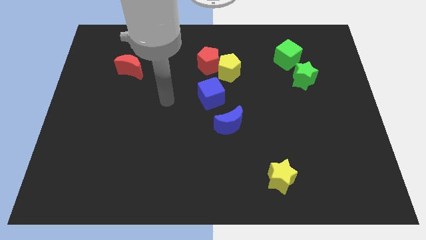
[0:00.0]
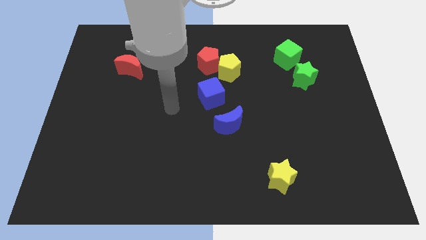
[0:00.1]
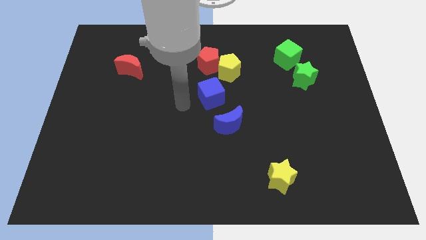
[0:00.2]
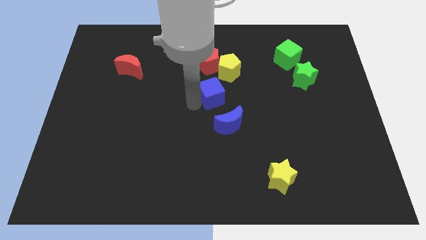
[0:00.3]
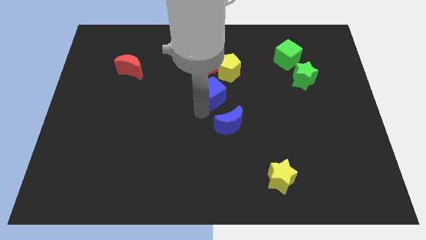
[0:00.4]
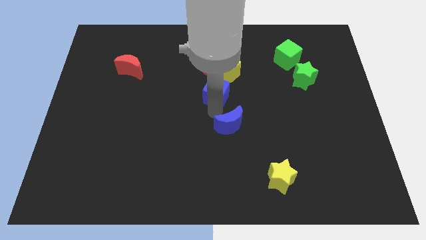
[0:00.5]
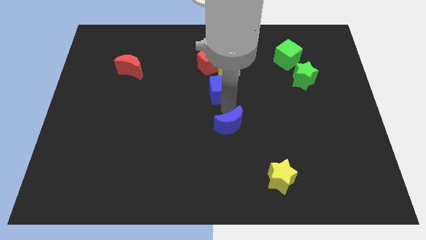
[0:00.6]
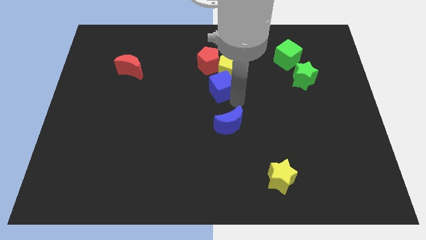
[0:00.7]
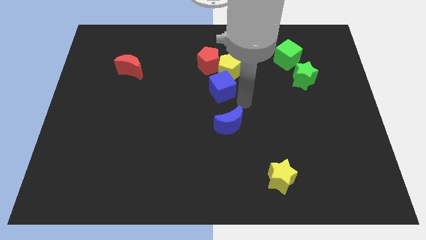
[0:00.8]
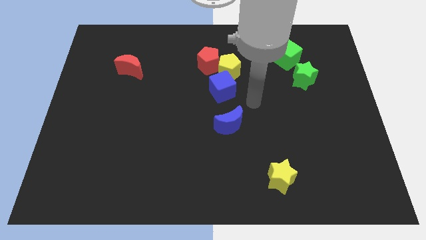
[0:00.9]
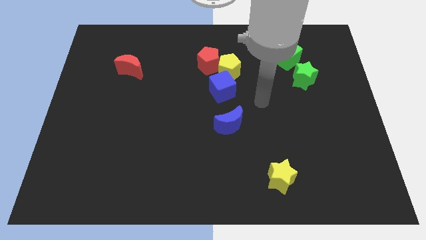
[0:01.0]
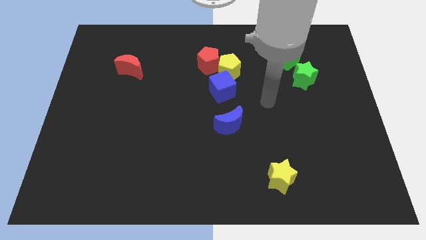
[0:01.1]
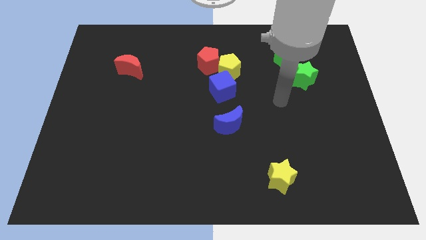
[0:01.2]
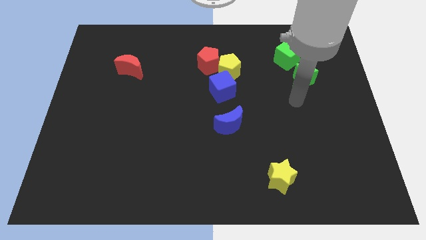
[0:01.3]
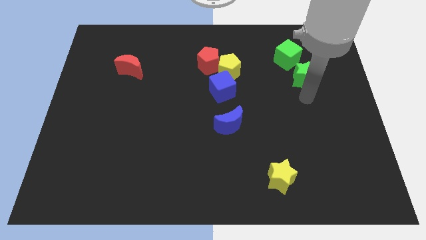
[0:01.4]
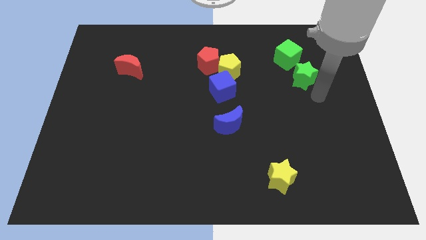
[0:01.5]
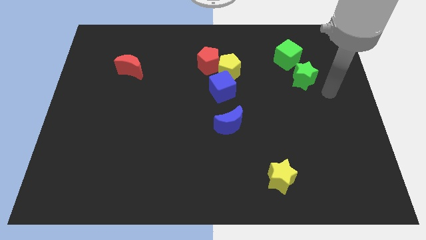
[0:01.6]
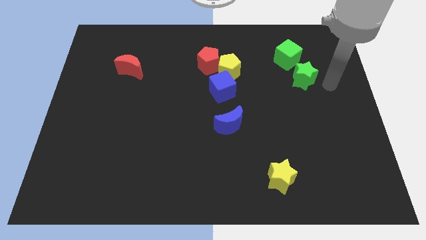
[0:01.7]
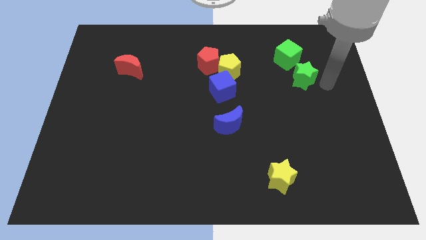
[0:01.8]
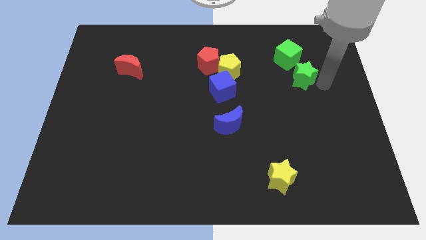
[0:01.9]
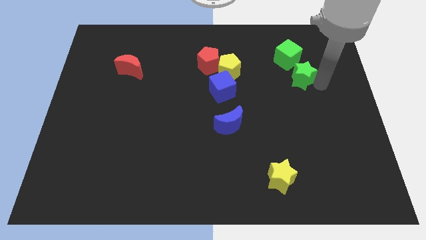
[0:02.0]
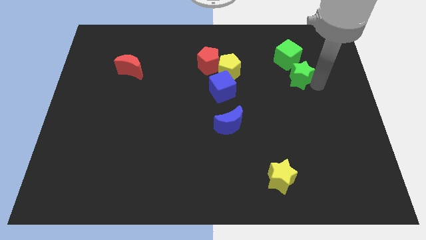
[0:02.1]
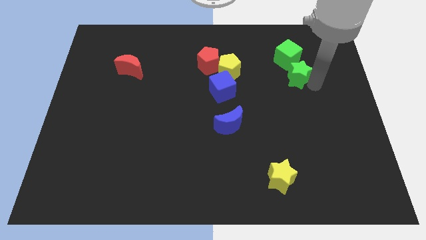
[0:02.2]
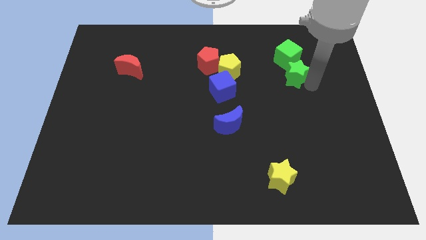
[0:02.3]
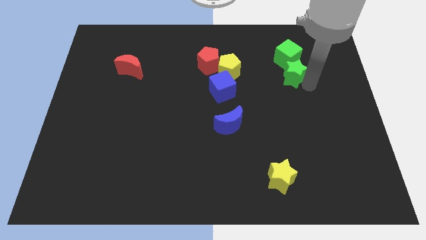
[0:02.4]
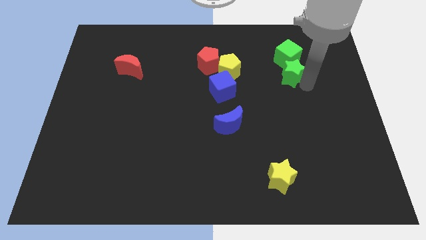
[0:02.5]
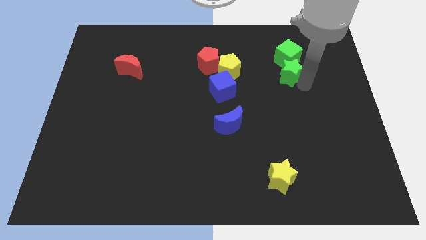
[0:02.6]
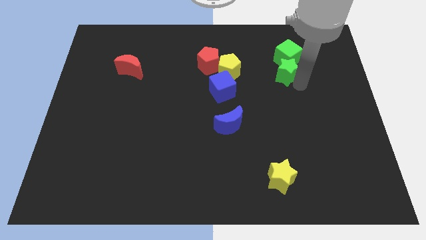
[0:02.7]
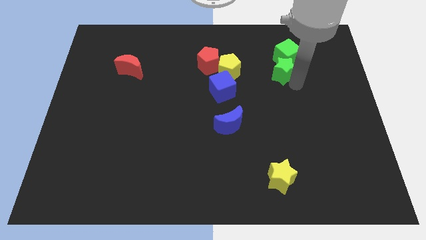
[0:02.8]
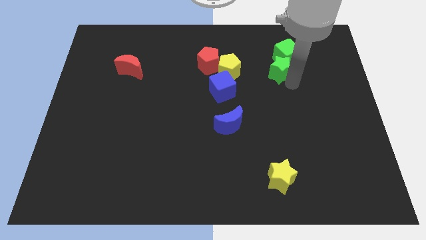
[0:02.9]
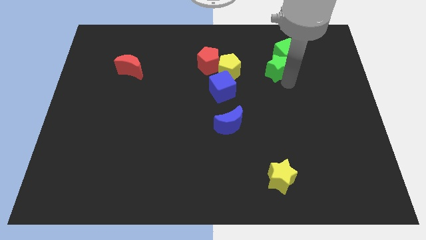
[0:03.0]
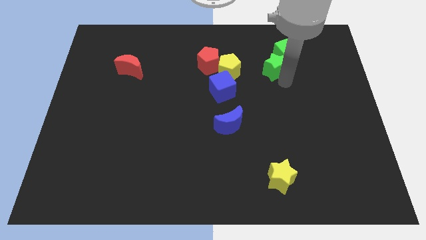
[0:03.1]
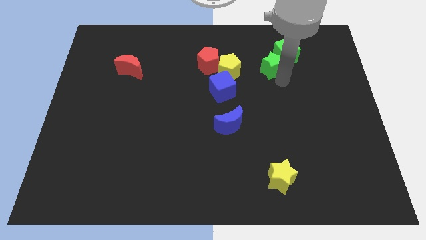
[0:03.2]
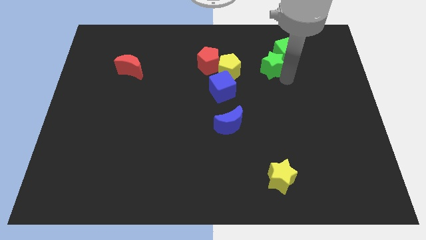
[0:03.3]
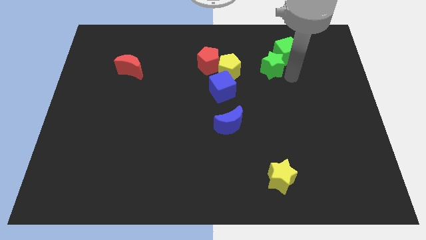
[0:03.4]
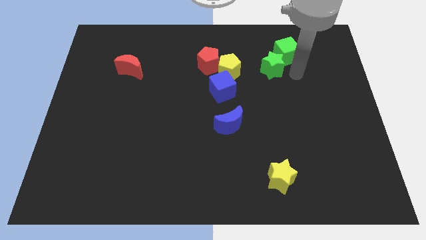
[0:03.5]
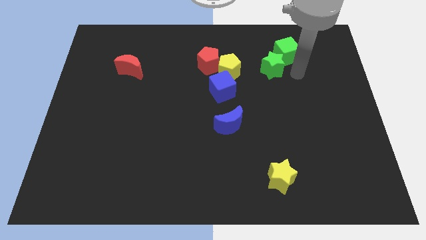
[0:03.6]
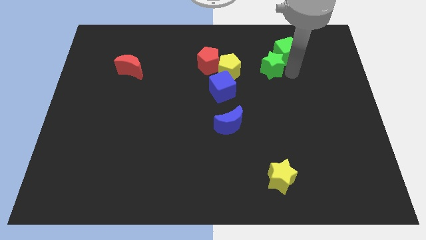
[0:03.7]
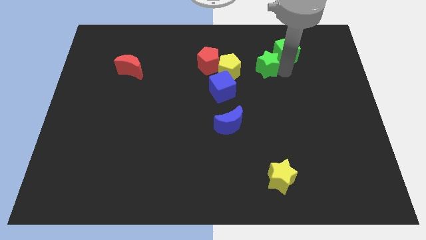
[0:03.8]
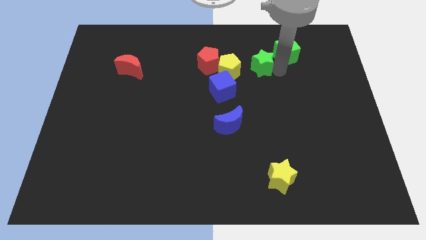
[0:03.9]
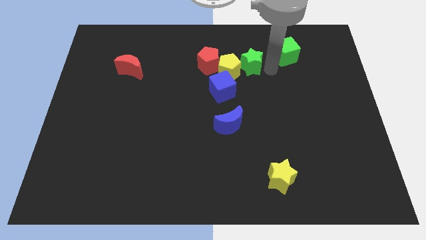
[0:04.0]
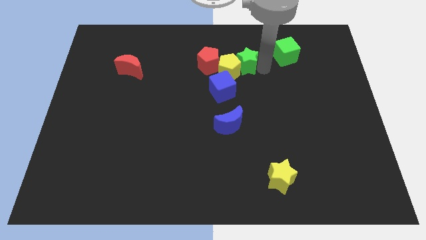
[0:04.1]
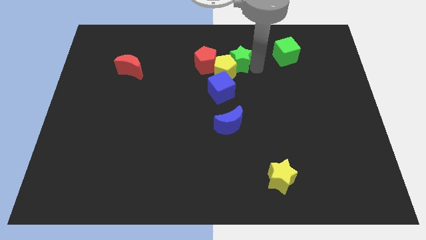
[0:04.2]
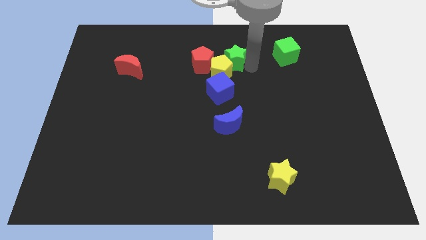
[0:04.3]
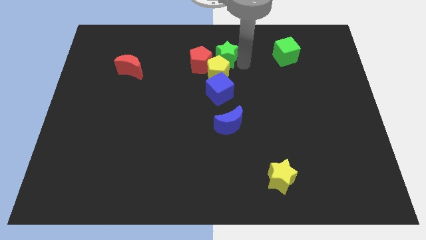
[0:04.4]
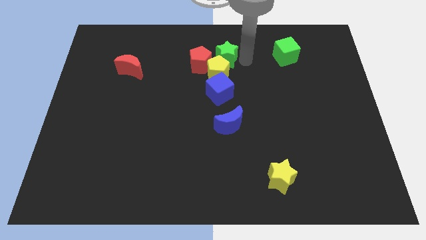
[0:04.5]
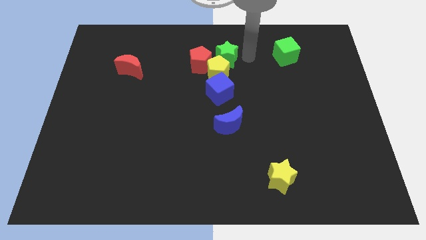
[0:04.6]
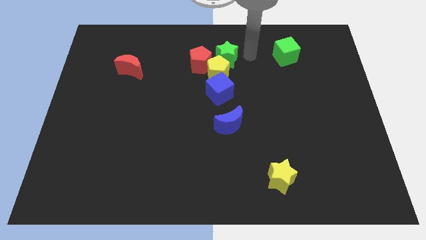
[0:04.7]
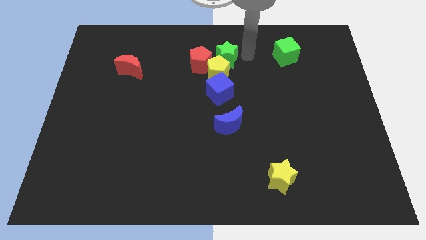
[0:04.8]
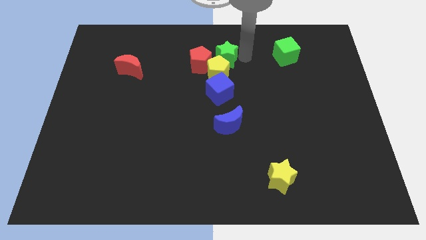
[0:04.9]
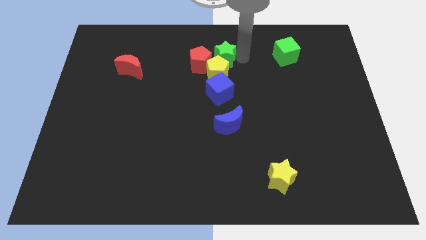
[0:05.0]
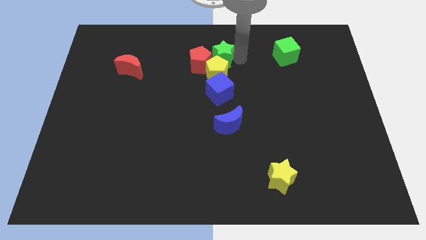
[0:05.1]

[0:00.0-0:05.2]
move the green star next to the red pentagon

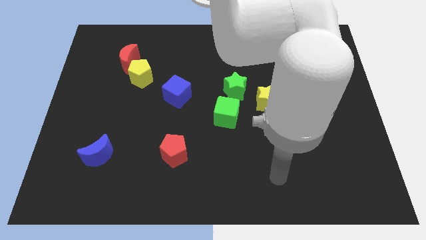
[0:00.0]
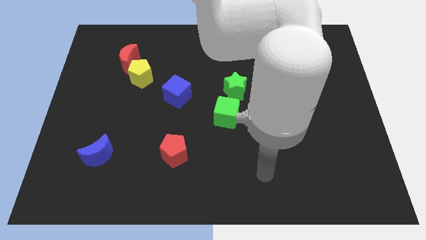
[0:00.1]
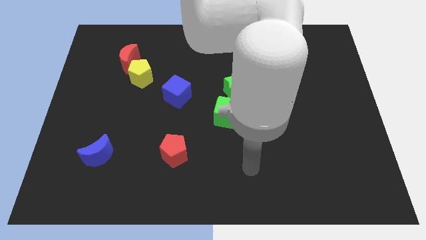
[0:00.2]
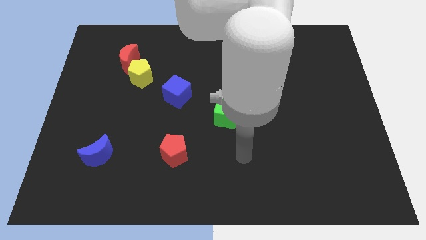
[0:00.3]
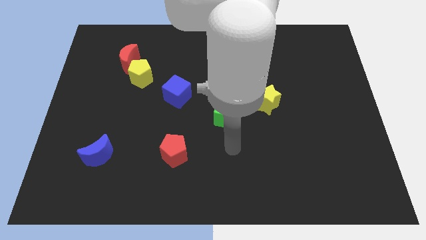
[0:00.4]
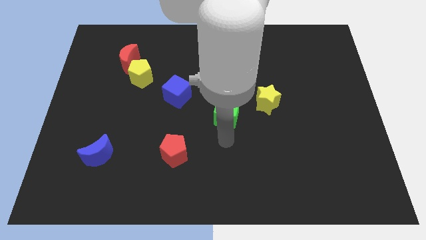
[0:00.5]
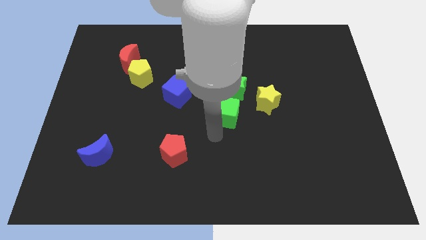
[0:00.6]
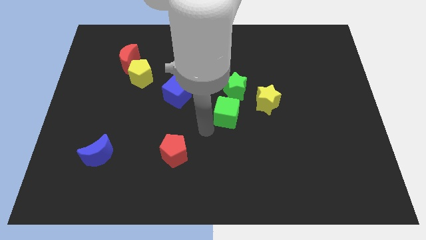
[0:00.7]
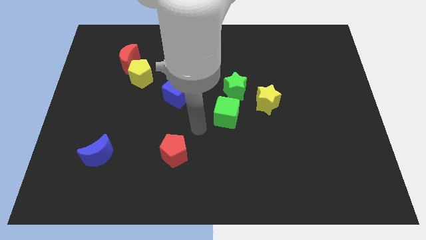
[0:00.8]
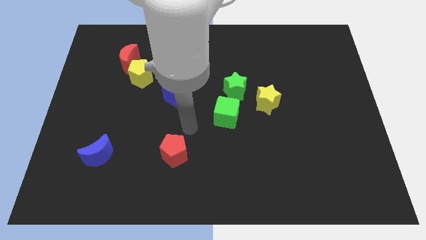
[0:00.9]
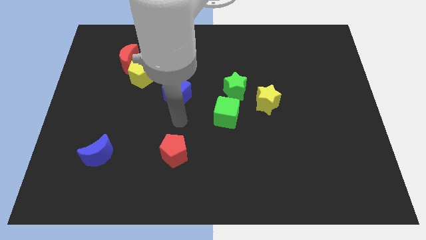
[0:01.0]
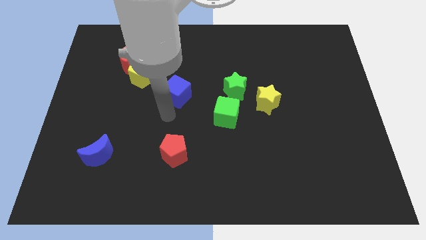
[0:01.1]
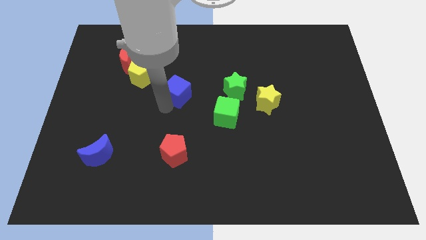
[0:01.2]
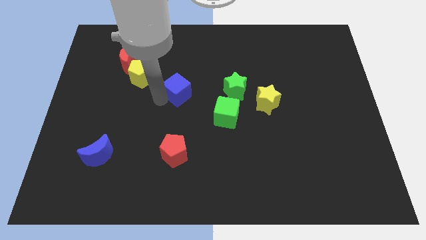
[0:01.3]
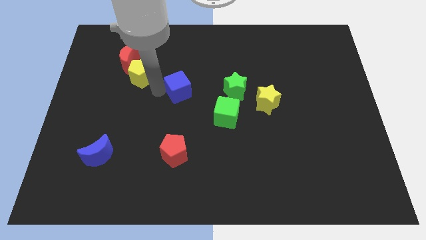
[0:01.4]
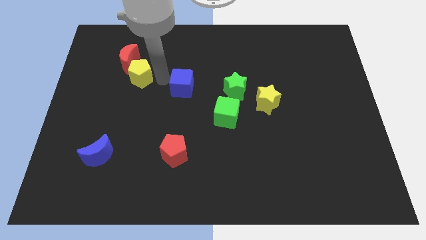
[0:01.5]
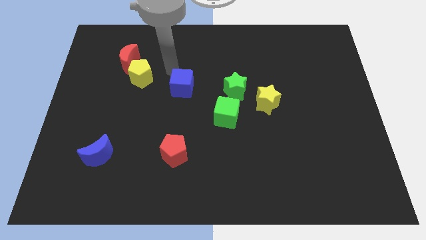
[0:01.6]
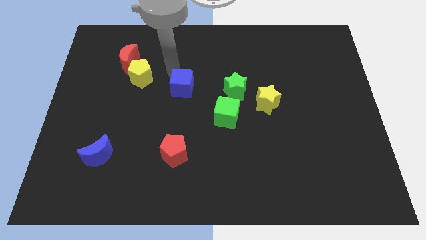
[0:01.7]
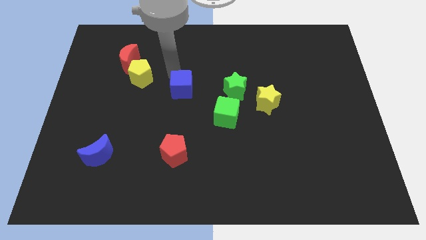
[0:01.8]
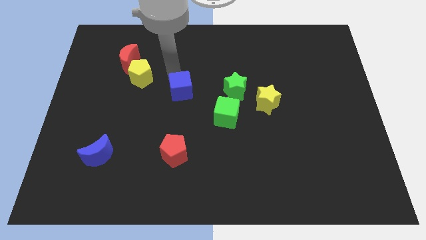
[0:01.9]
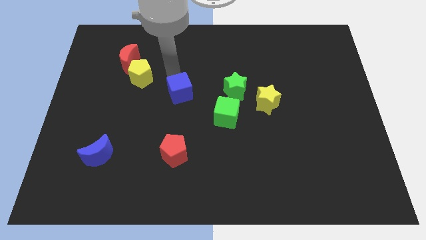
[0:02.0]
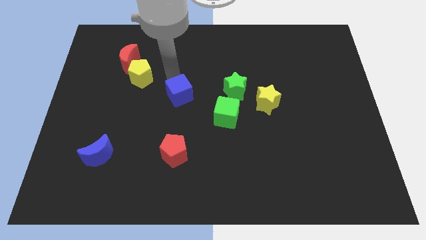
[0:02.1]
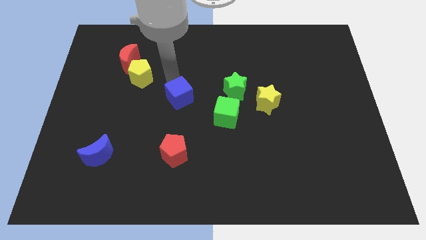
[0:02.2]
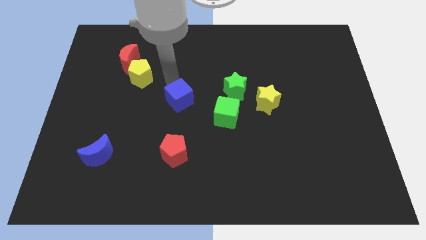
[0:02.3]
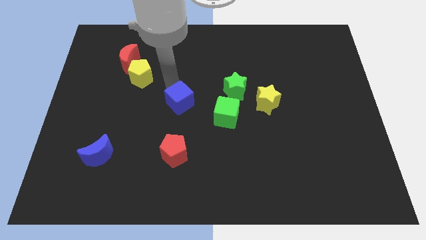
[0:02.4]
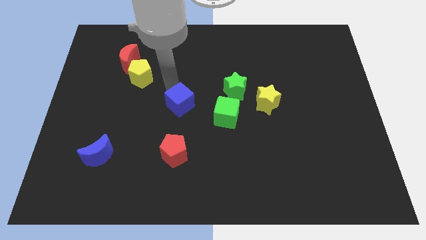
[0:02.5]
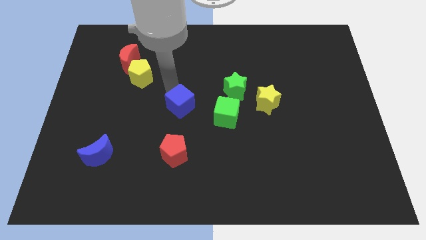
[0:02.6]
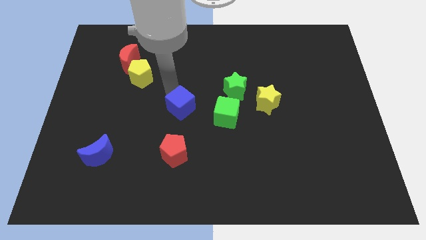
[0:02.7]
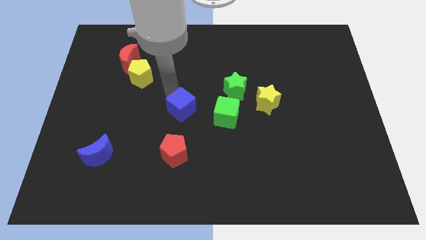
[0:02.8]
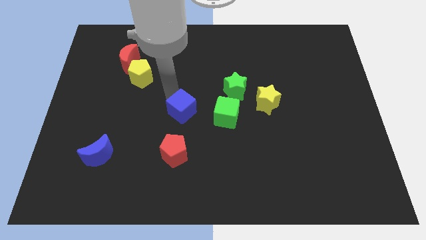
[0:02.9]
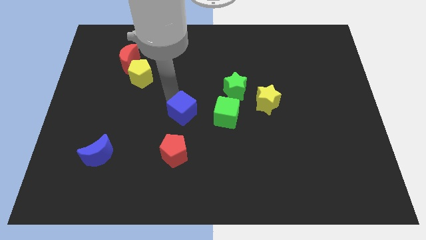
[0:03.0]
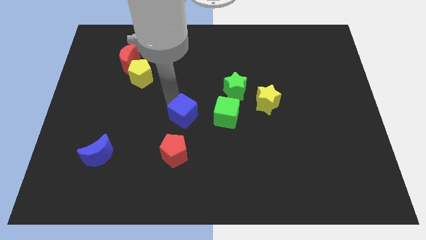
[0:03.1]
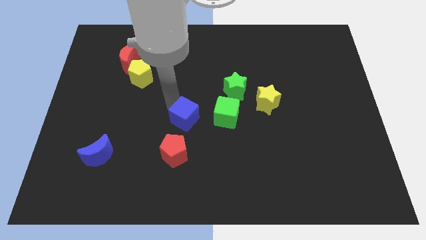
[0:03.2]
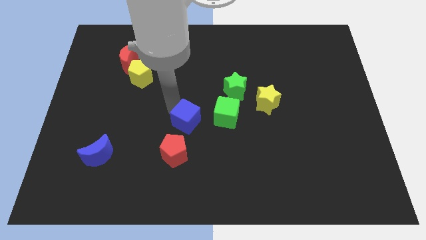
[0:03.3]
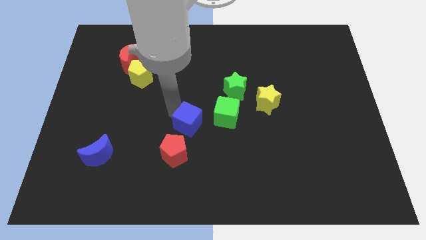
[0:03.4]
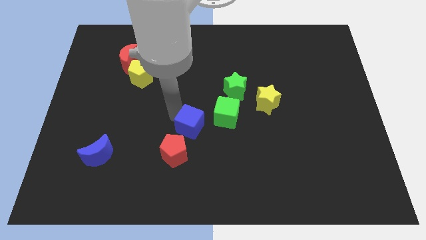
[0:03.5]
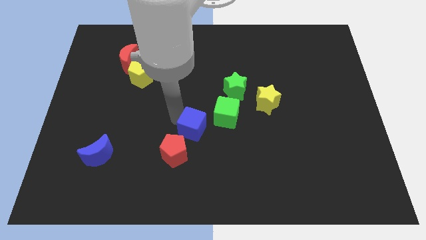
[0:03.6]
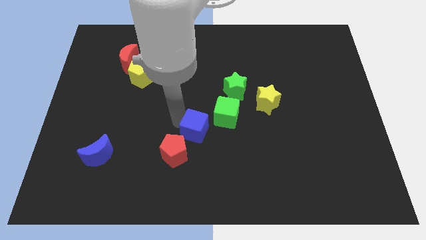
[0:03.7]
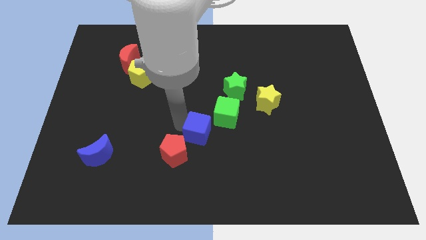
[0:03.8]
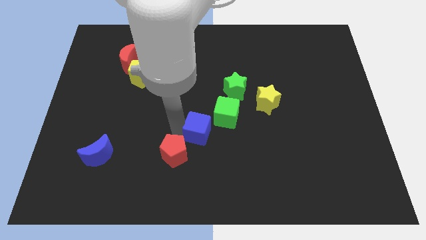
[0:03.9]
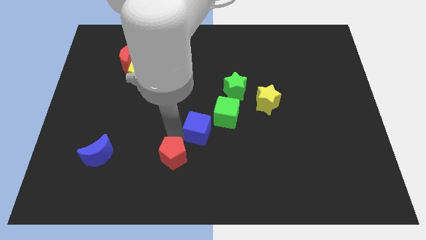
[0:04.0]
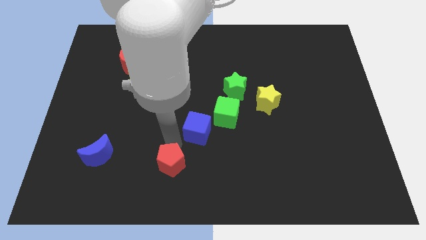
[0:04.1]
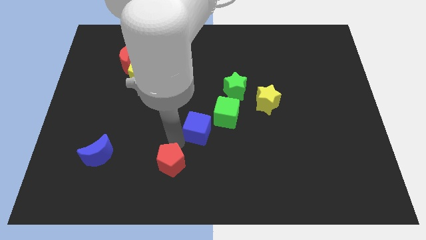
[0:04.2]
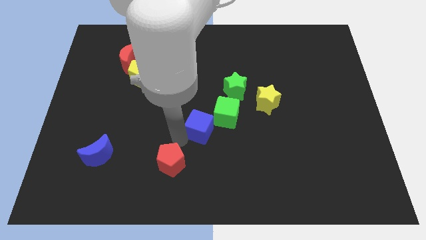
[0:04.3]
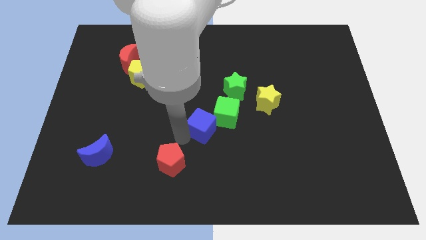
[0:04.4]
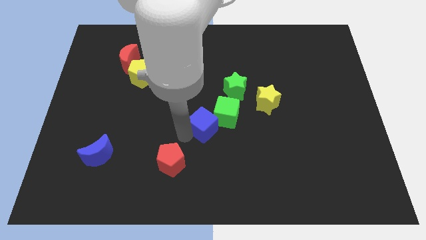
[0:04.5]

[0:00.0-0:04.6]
slide the blue cube to the green cube
